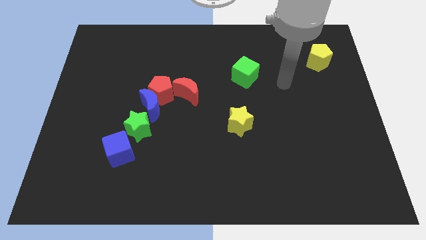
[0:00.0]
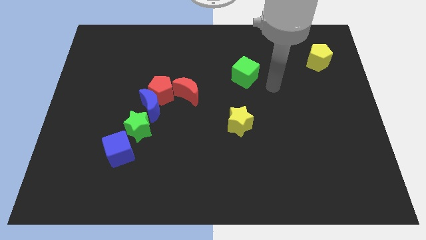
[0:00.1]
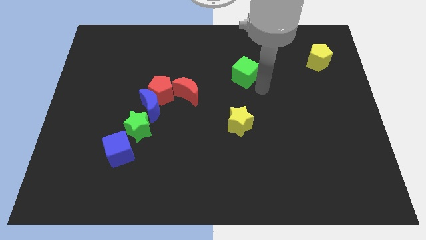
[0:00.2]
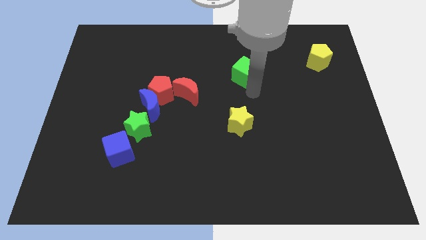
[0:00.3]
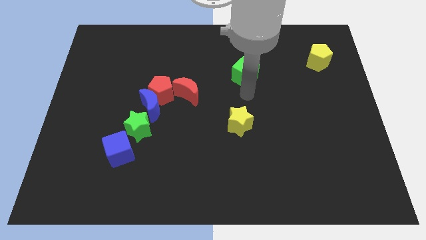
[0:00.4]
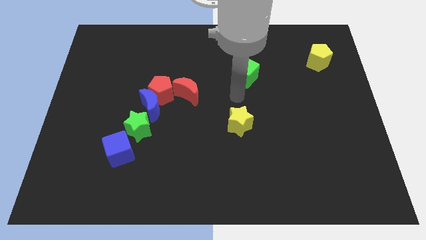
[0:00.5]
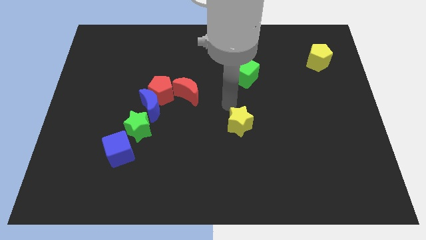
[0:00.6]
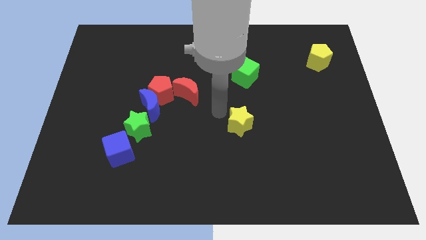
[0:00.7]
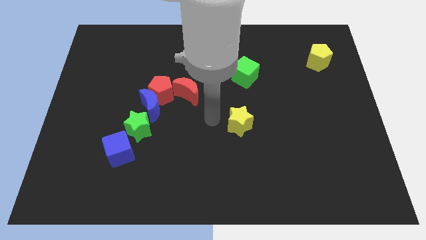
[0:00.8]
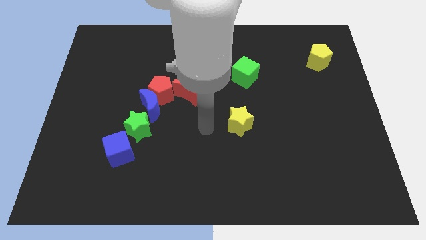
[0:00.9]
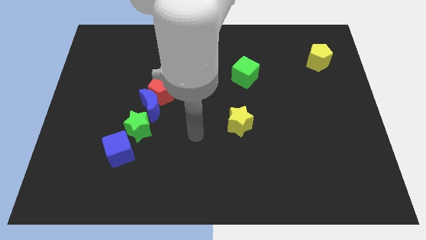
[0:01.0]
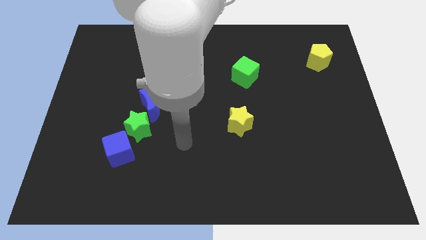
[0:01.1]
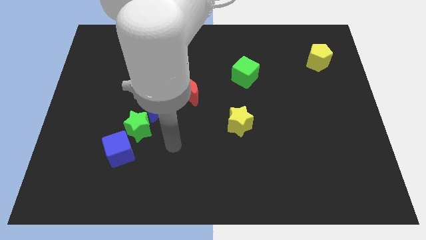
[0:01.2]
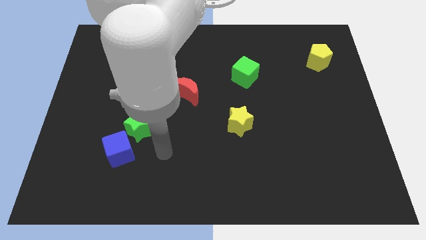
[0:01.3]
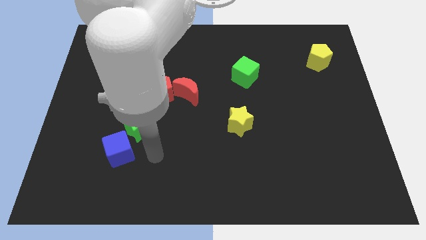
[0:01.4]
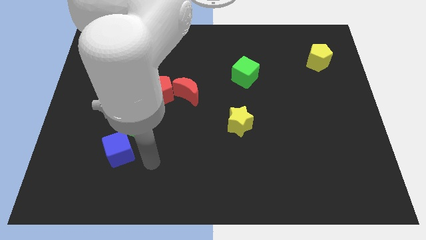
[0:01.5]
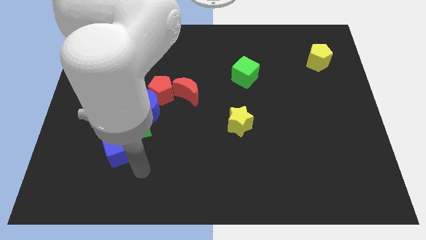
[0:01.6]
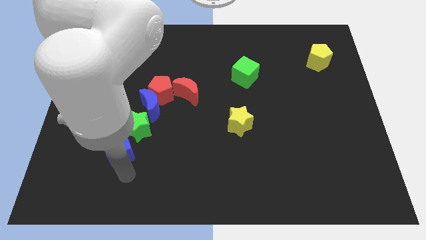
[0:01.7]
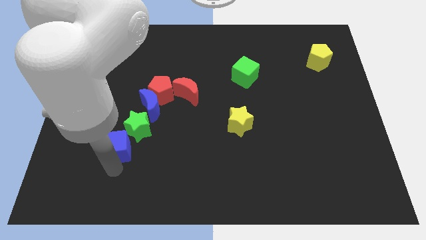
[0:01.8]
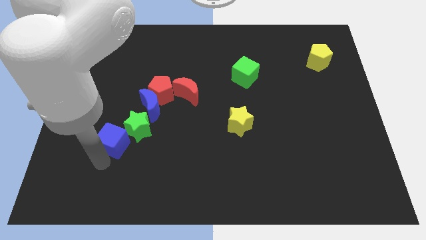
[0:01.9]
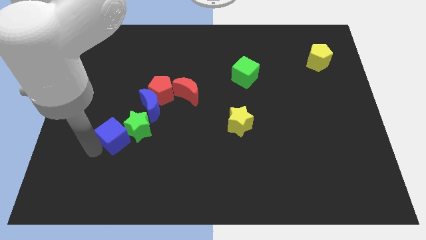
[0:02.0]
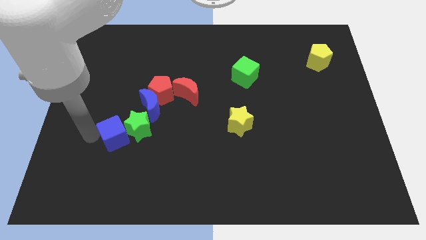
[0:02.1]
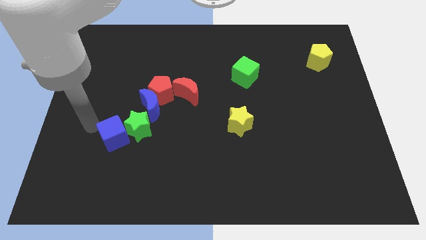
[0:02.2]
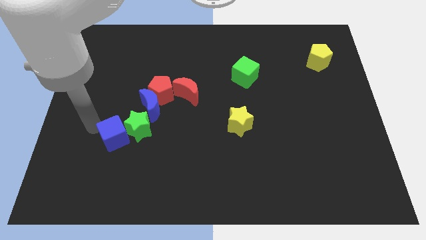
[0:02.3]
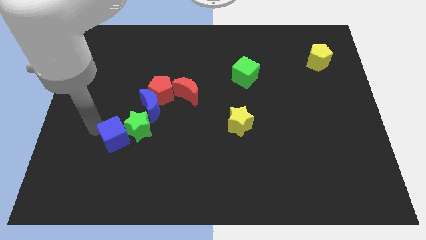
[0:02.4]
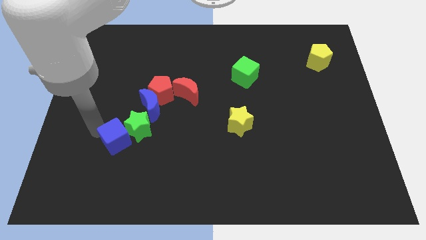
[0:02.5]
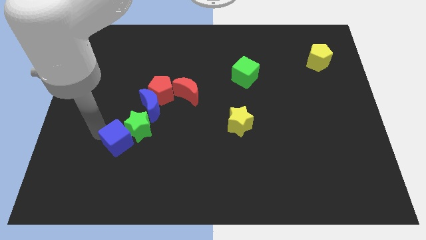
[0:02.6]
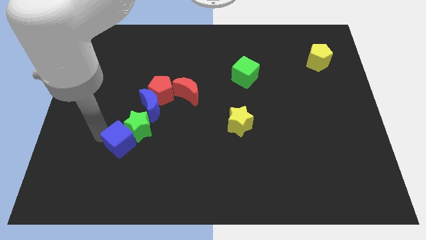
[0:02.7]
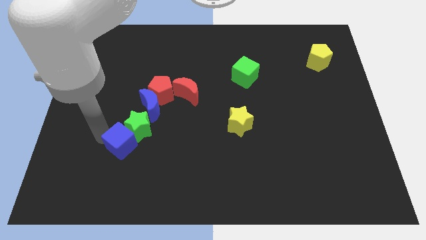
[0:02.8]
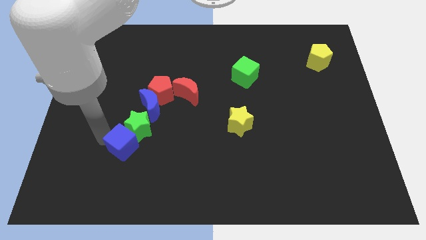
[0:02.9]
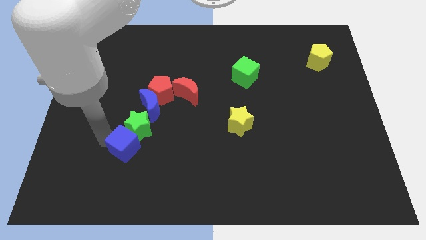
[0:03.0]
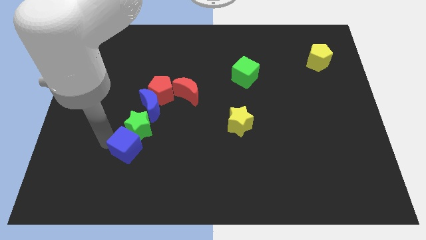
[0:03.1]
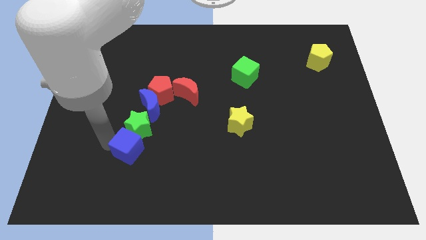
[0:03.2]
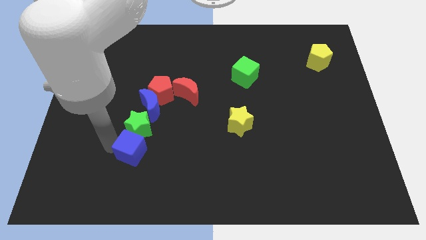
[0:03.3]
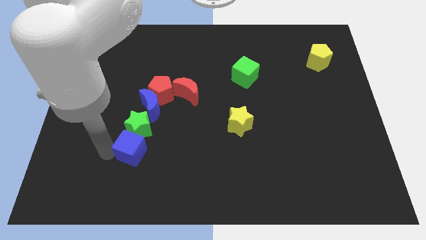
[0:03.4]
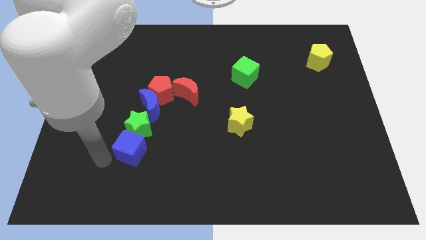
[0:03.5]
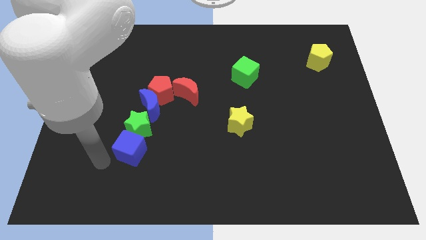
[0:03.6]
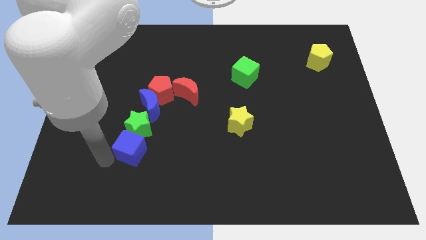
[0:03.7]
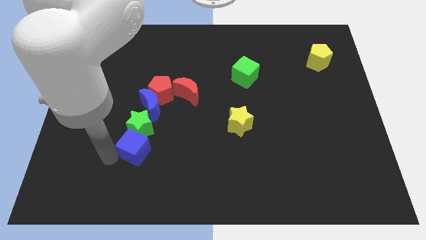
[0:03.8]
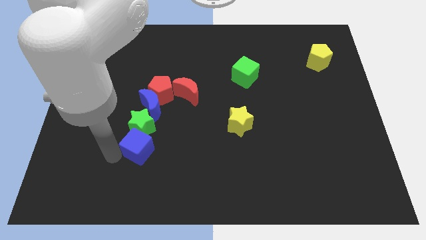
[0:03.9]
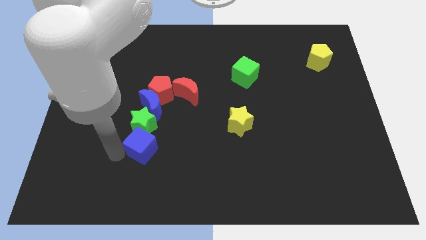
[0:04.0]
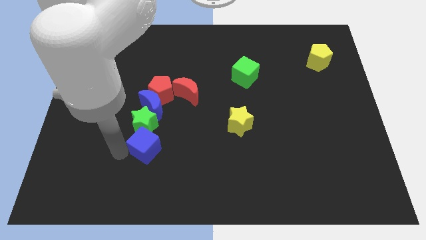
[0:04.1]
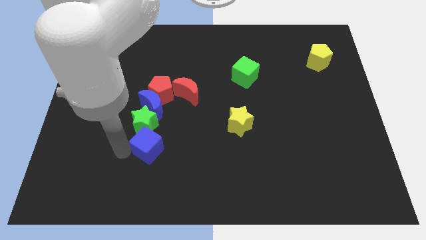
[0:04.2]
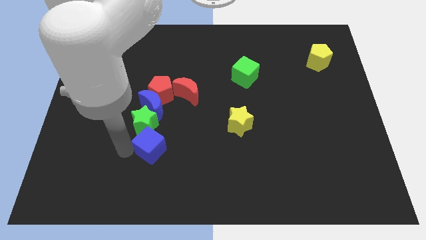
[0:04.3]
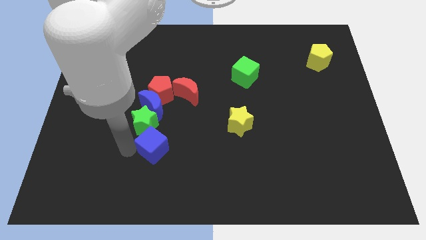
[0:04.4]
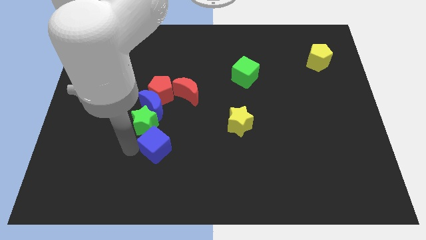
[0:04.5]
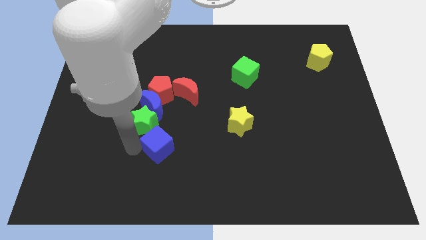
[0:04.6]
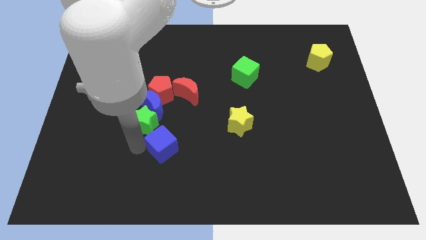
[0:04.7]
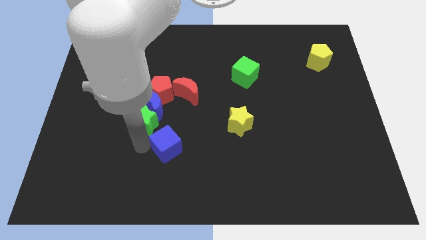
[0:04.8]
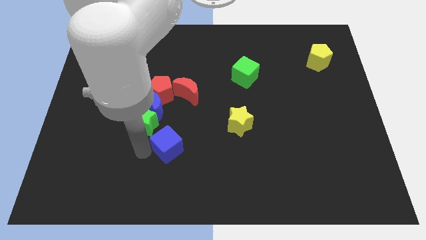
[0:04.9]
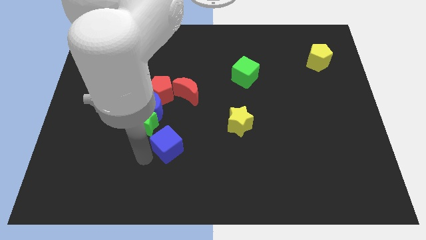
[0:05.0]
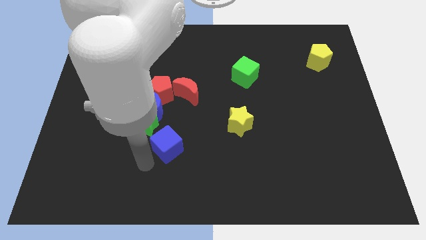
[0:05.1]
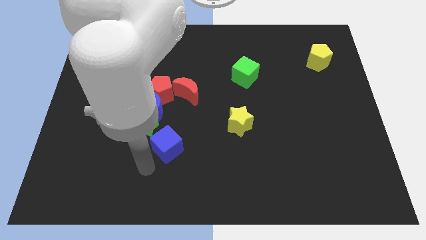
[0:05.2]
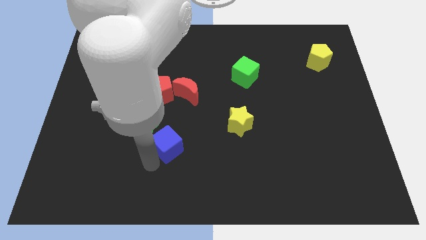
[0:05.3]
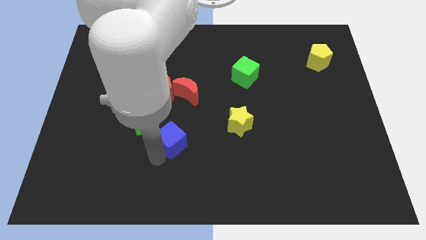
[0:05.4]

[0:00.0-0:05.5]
push the blue cube to the right of the green star

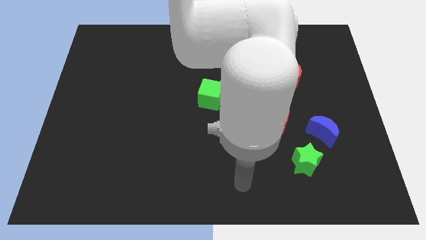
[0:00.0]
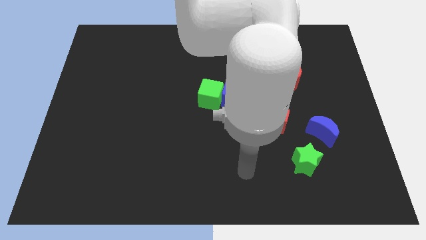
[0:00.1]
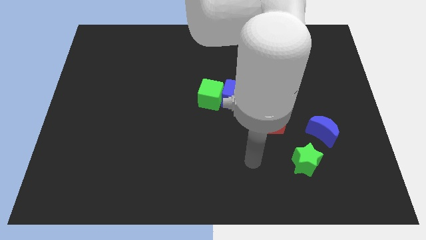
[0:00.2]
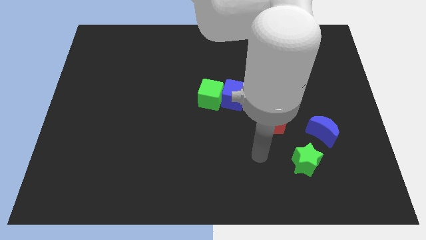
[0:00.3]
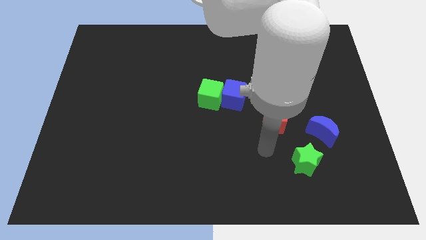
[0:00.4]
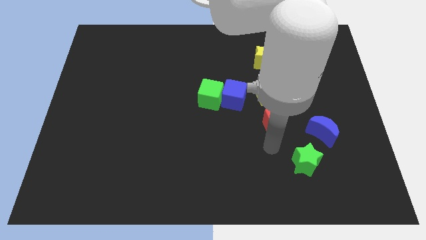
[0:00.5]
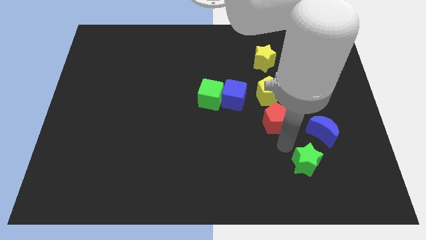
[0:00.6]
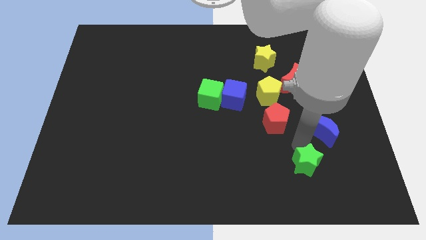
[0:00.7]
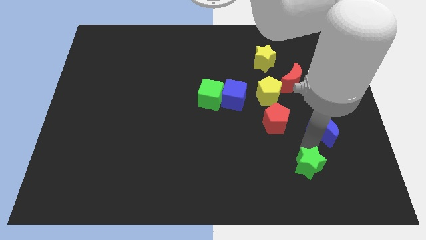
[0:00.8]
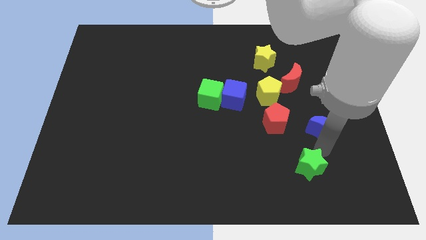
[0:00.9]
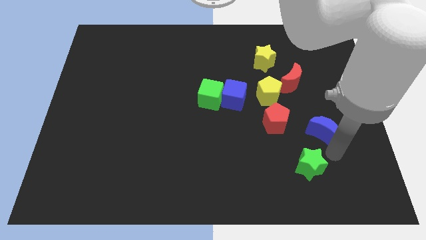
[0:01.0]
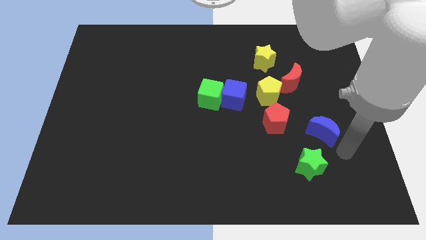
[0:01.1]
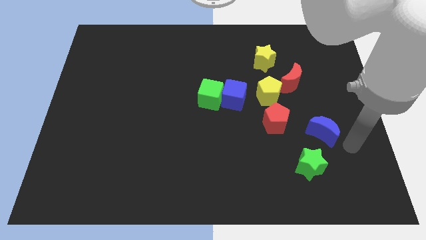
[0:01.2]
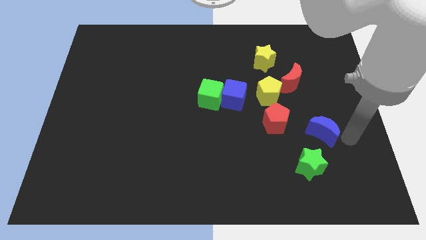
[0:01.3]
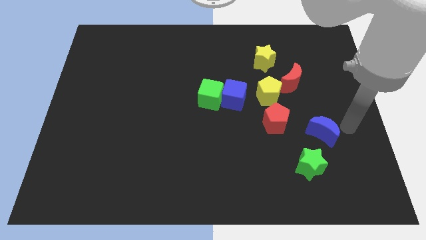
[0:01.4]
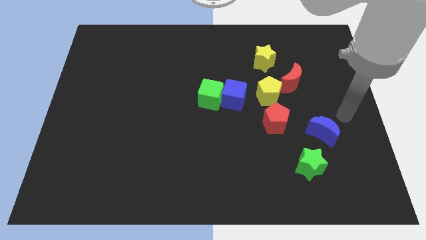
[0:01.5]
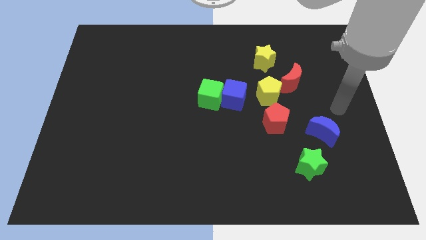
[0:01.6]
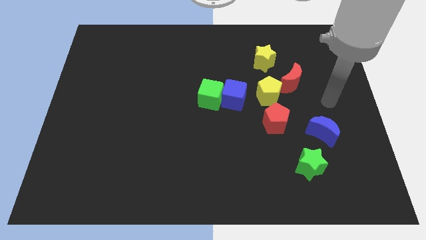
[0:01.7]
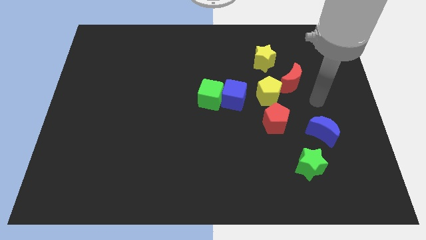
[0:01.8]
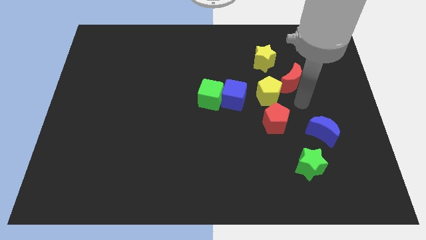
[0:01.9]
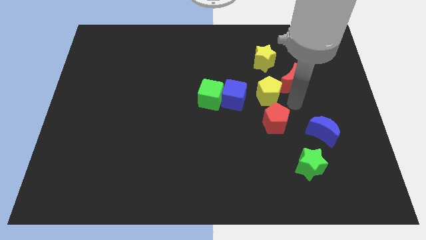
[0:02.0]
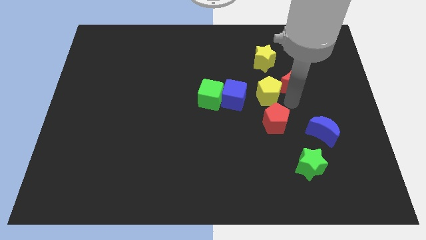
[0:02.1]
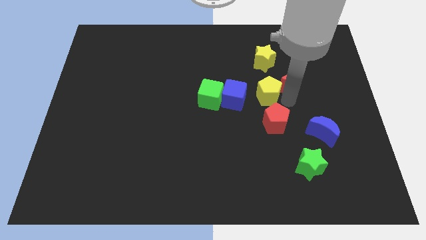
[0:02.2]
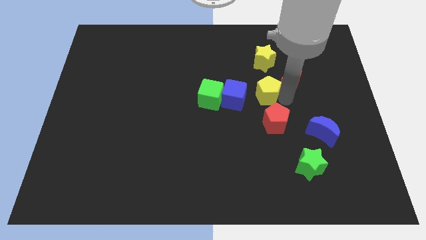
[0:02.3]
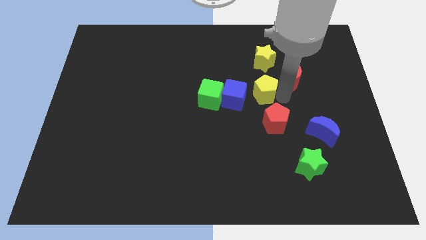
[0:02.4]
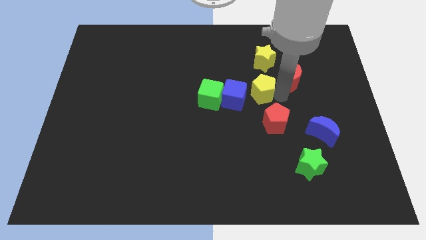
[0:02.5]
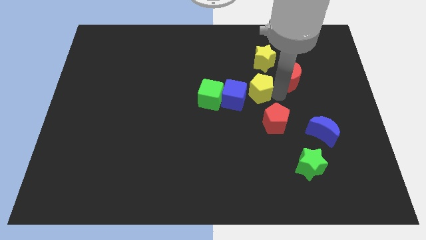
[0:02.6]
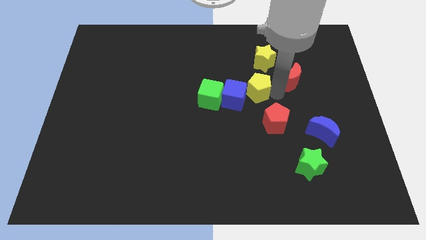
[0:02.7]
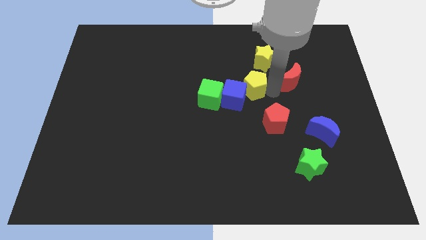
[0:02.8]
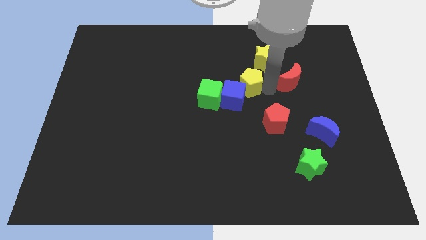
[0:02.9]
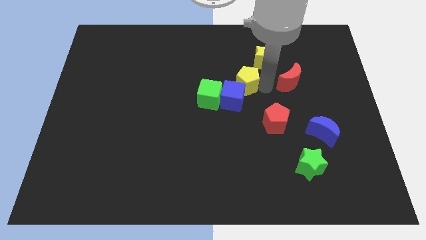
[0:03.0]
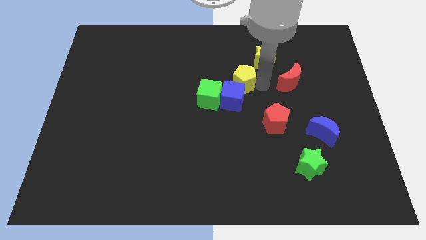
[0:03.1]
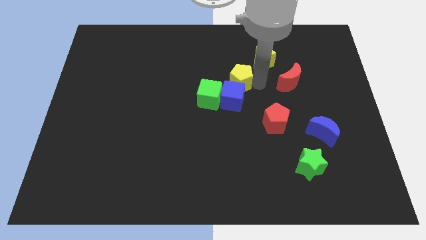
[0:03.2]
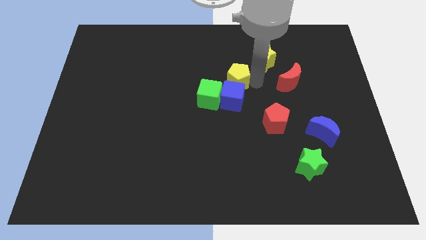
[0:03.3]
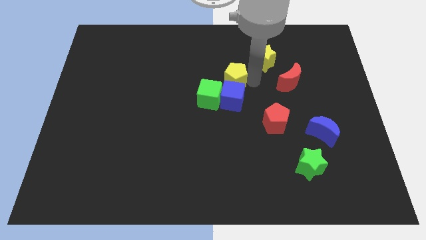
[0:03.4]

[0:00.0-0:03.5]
slide the yellow pentagon to the top left side of the blue cube
